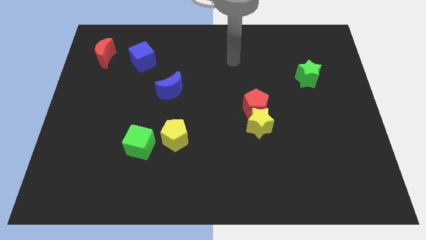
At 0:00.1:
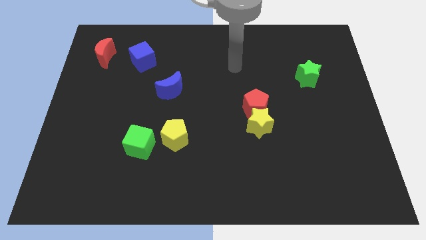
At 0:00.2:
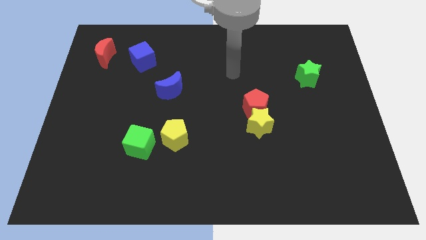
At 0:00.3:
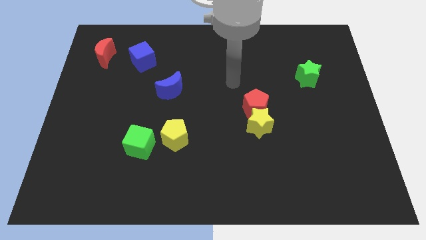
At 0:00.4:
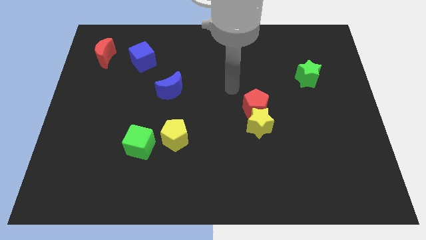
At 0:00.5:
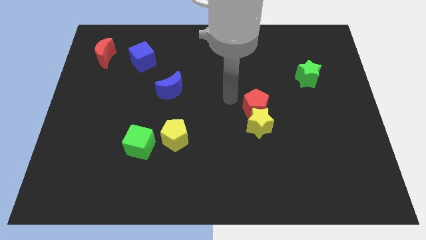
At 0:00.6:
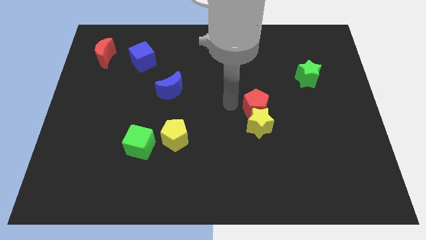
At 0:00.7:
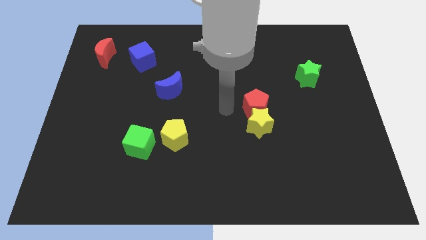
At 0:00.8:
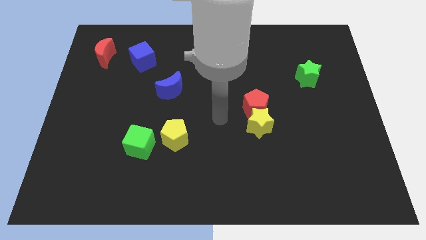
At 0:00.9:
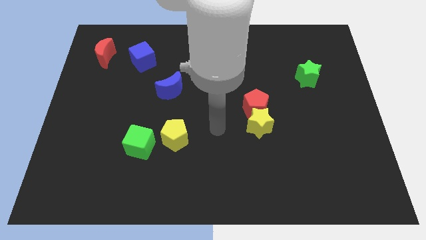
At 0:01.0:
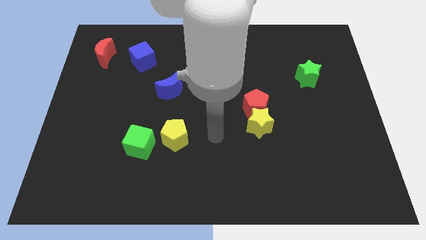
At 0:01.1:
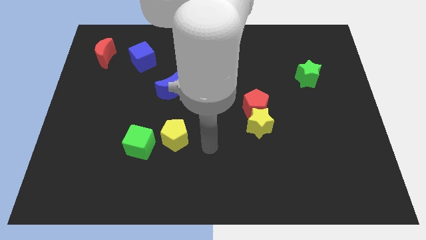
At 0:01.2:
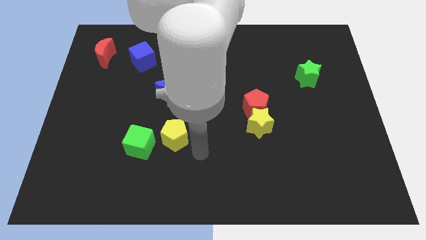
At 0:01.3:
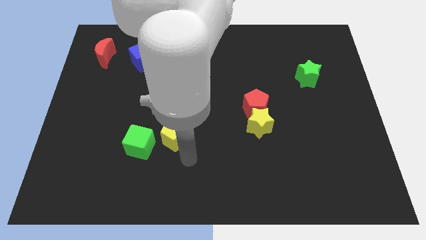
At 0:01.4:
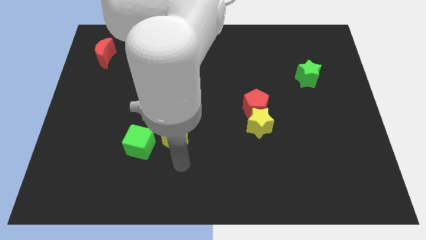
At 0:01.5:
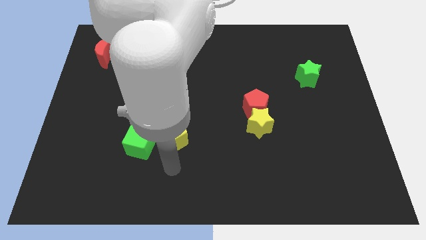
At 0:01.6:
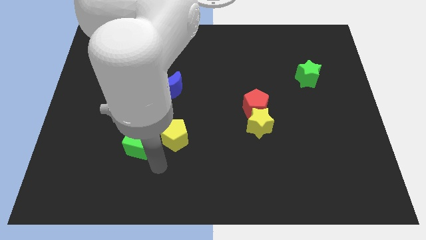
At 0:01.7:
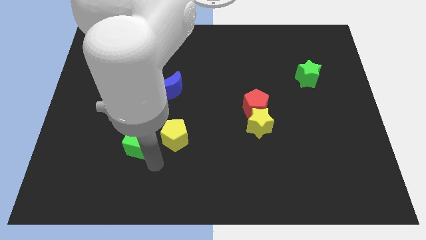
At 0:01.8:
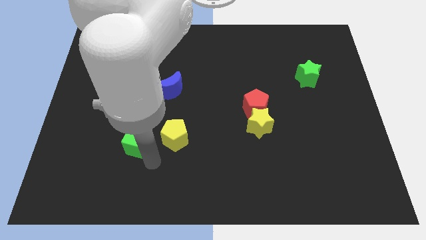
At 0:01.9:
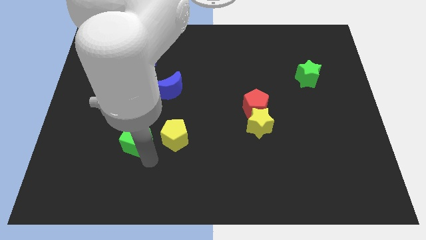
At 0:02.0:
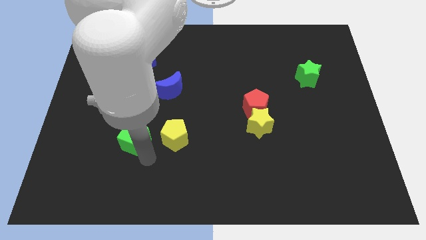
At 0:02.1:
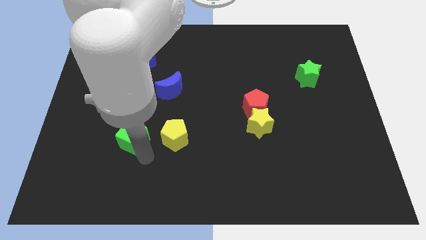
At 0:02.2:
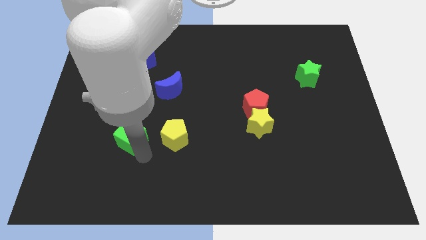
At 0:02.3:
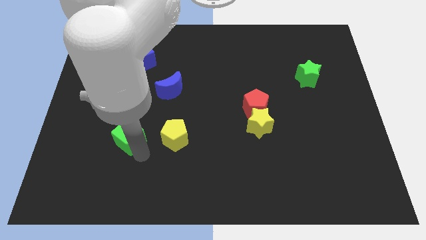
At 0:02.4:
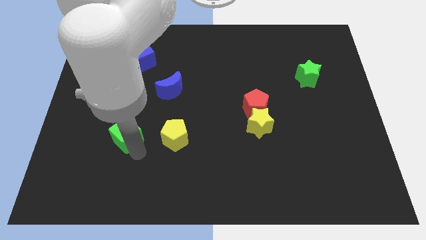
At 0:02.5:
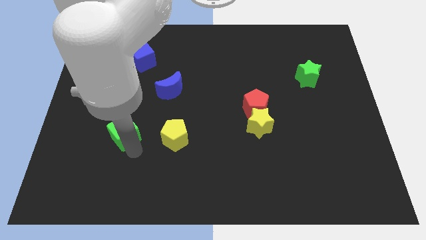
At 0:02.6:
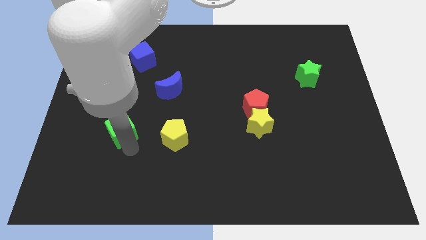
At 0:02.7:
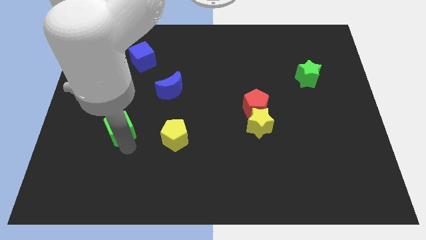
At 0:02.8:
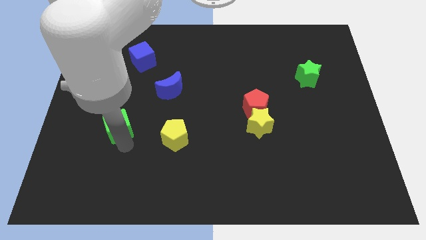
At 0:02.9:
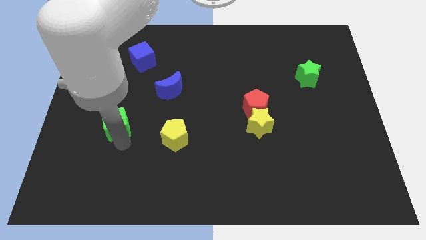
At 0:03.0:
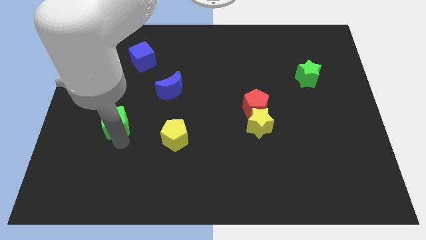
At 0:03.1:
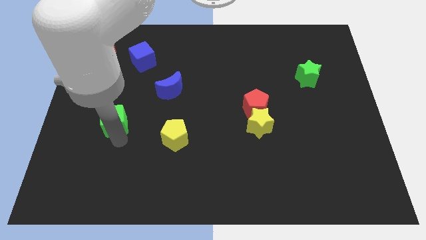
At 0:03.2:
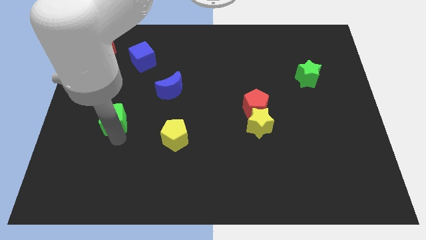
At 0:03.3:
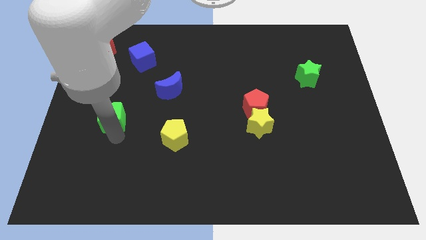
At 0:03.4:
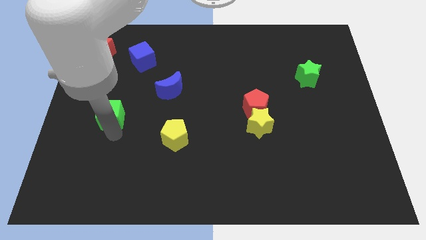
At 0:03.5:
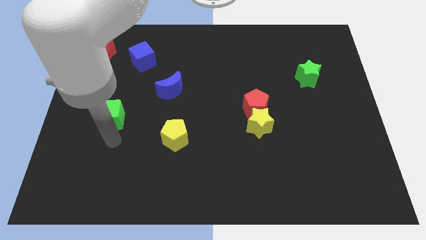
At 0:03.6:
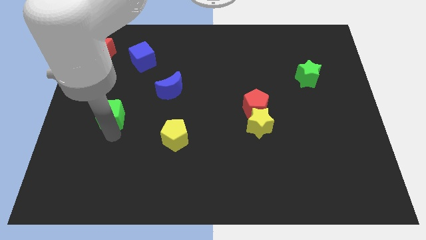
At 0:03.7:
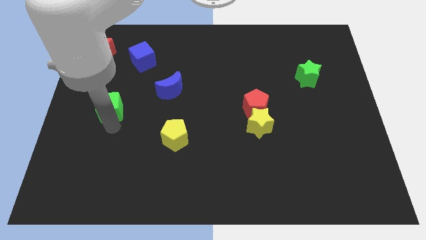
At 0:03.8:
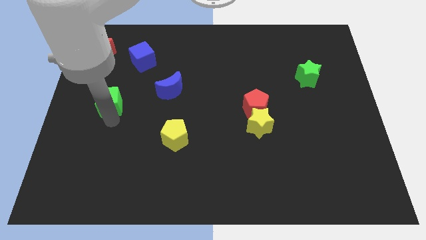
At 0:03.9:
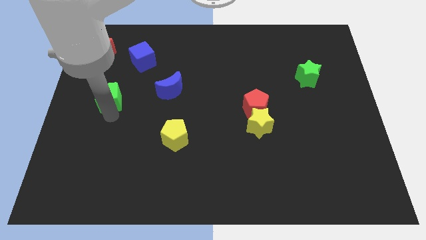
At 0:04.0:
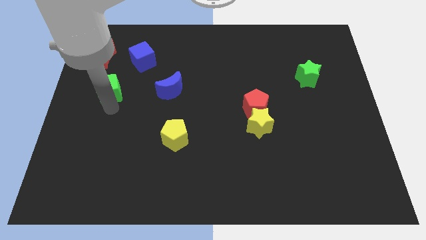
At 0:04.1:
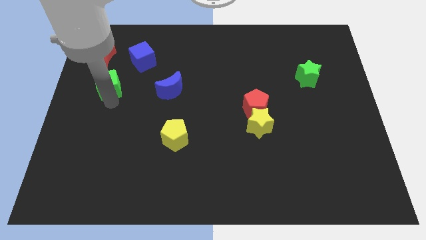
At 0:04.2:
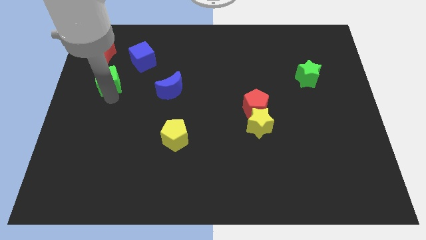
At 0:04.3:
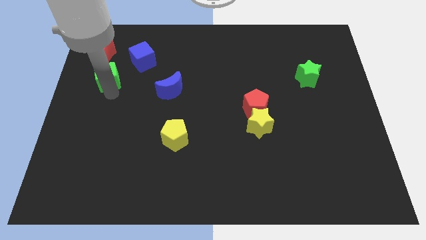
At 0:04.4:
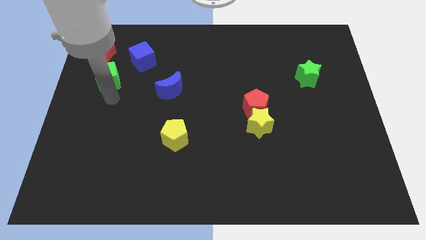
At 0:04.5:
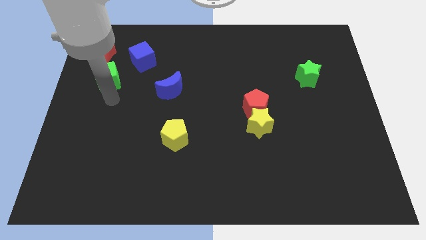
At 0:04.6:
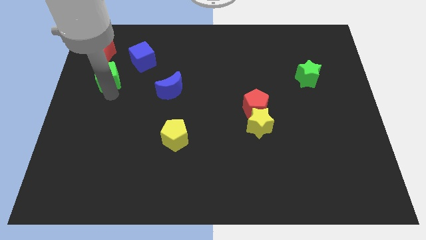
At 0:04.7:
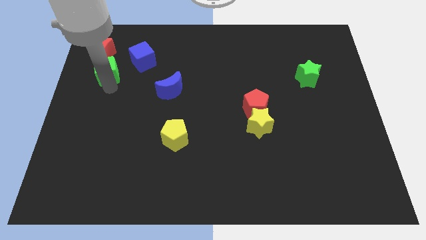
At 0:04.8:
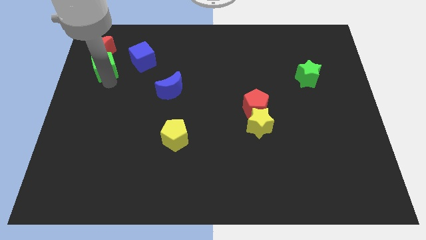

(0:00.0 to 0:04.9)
move the green cube towards the red moon

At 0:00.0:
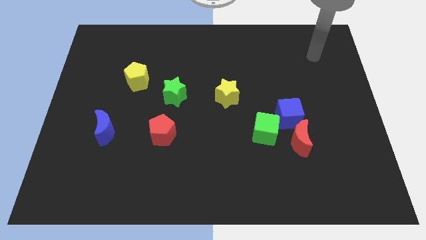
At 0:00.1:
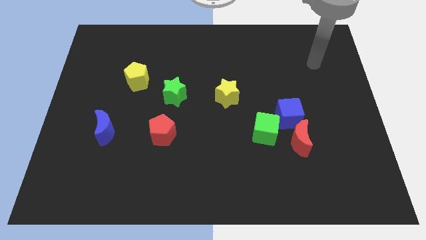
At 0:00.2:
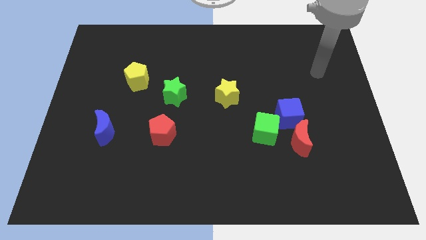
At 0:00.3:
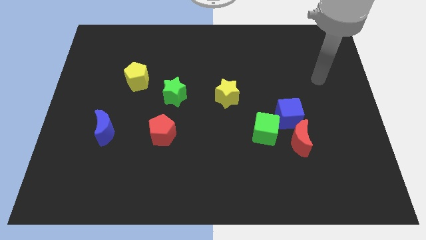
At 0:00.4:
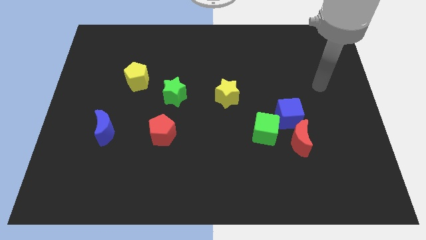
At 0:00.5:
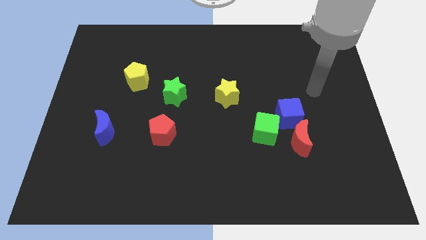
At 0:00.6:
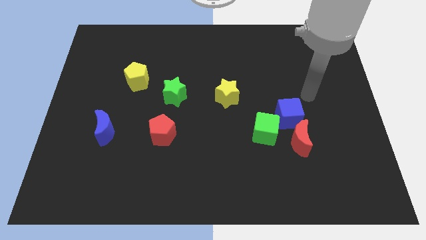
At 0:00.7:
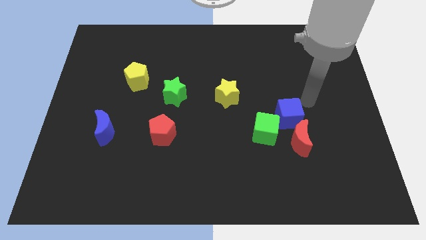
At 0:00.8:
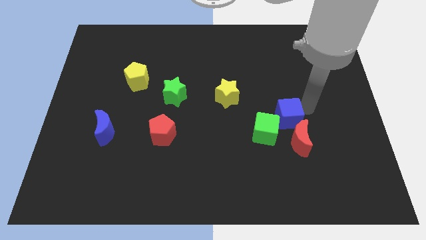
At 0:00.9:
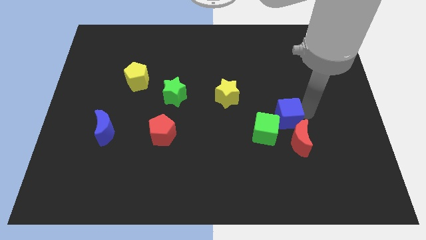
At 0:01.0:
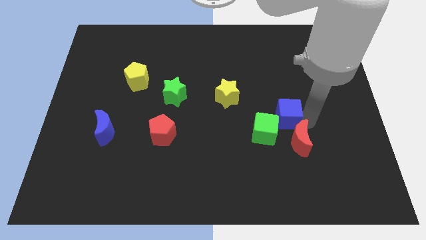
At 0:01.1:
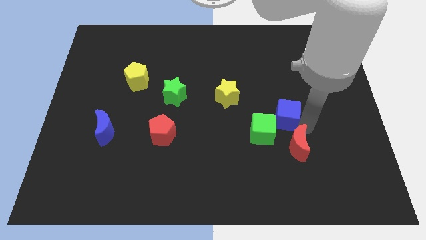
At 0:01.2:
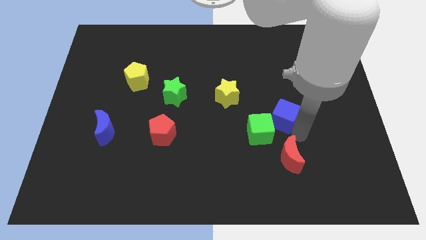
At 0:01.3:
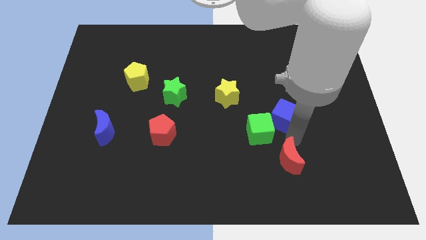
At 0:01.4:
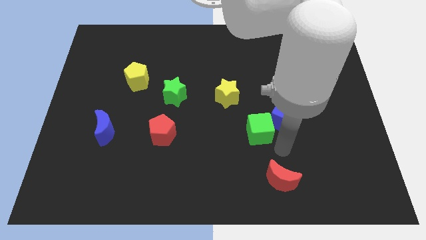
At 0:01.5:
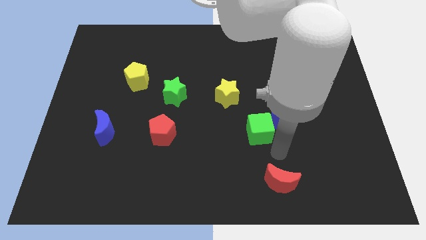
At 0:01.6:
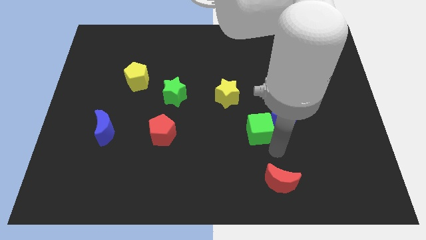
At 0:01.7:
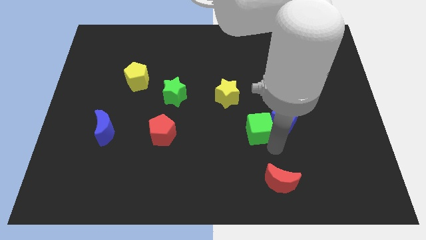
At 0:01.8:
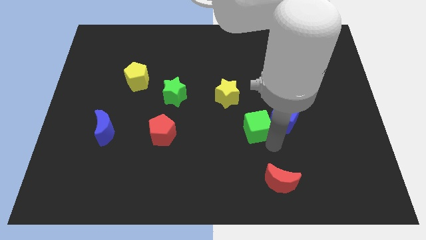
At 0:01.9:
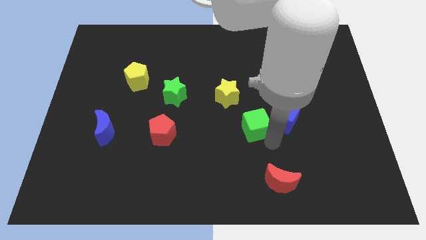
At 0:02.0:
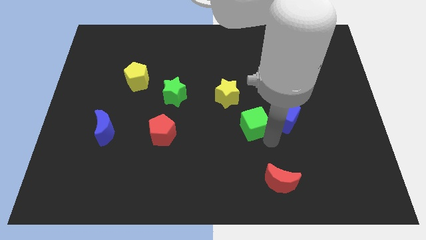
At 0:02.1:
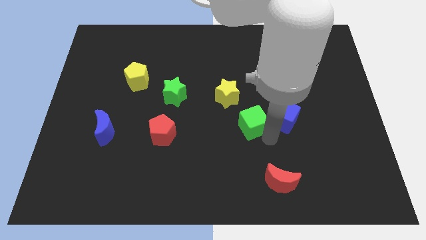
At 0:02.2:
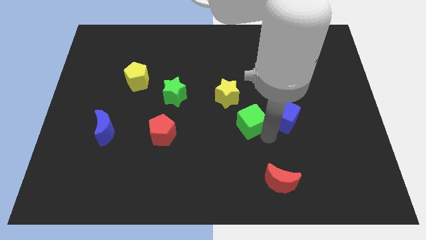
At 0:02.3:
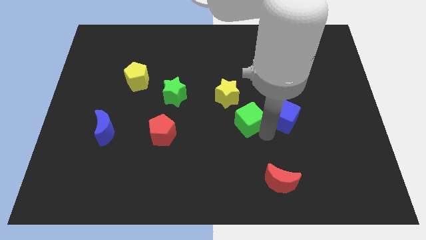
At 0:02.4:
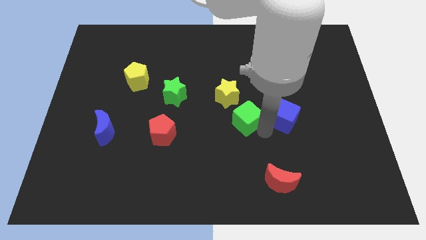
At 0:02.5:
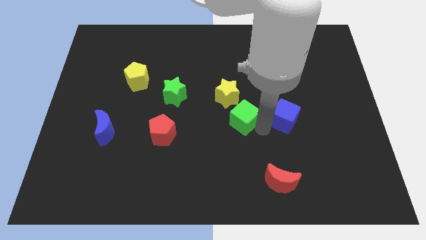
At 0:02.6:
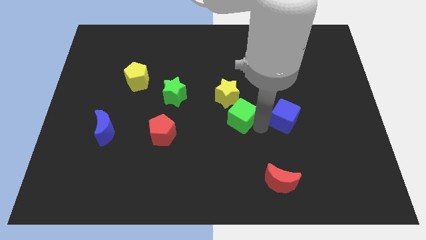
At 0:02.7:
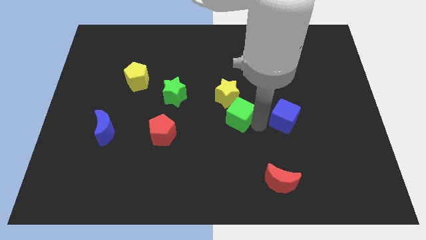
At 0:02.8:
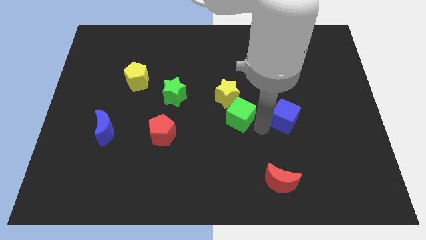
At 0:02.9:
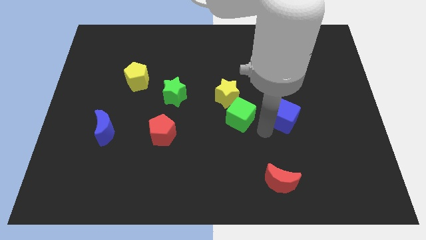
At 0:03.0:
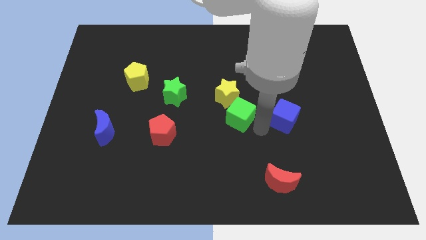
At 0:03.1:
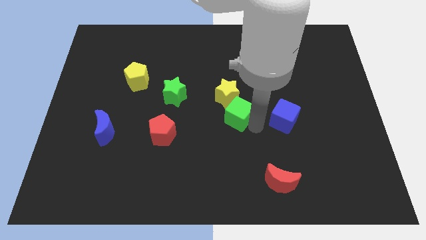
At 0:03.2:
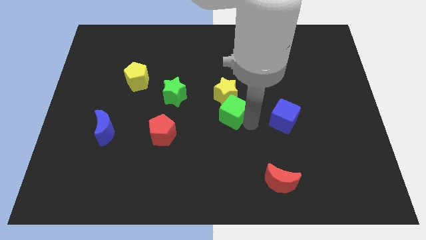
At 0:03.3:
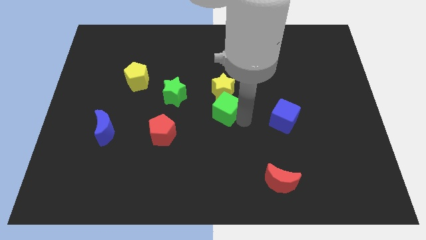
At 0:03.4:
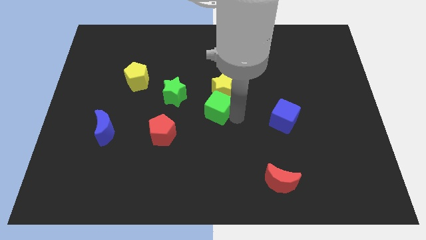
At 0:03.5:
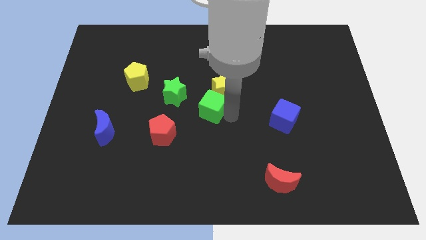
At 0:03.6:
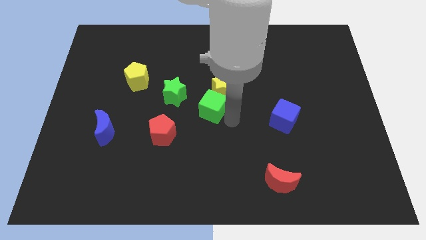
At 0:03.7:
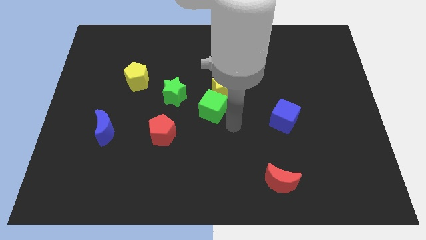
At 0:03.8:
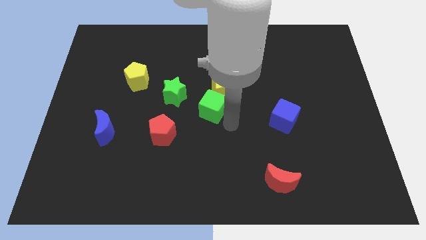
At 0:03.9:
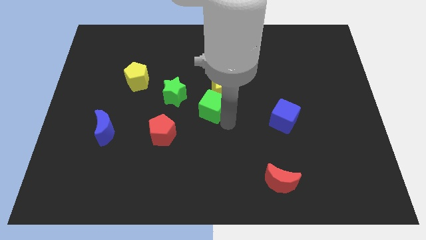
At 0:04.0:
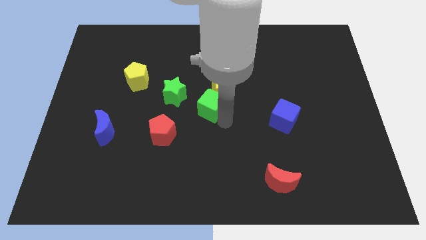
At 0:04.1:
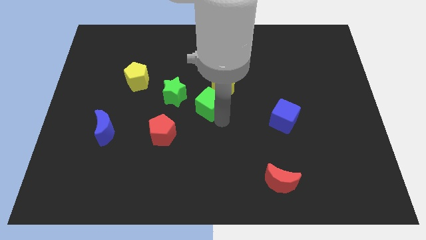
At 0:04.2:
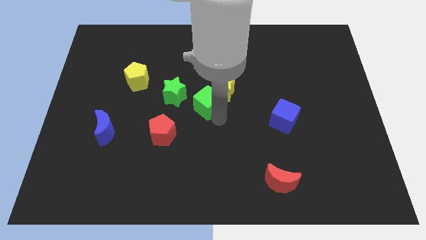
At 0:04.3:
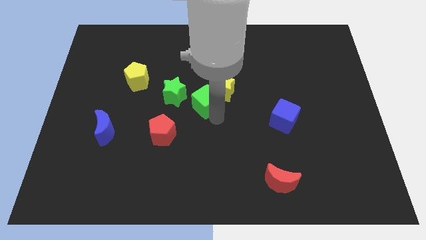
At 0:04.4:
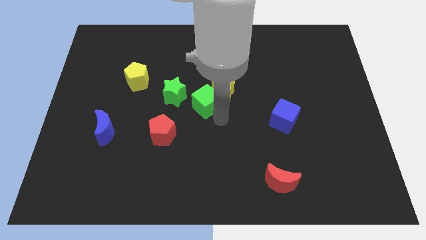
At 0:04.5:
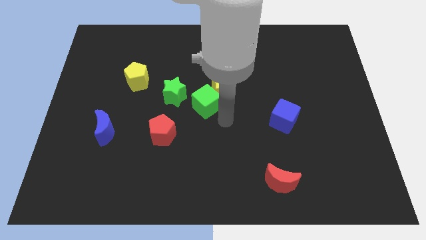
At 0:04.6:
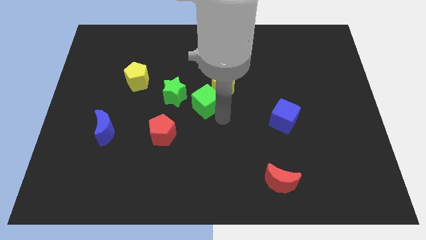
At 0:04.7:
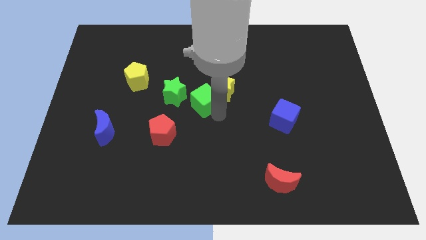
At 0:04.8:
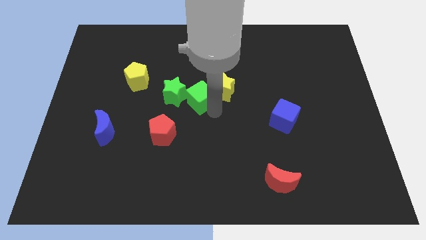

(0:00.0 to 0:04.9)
put the green cube to the green star
